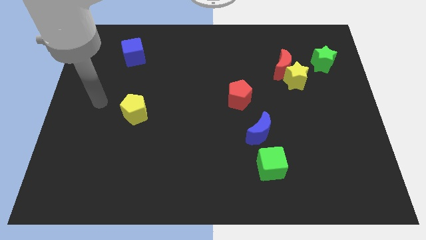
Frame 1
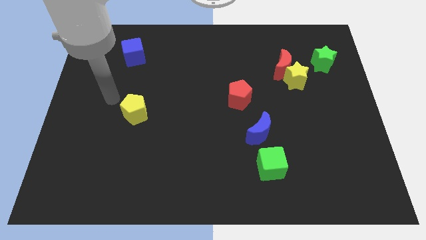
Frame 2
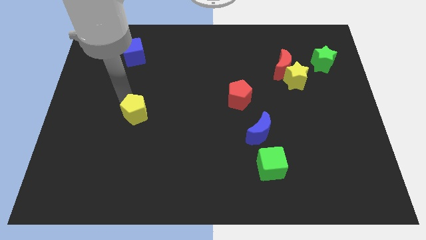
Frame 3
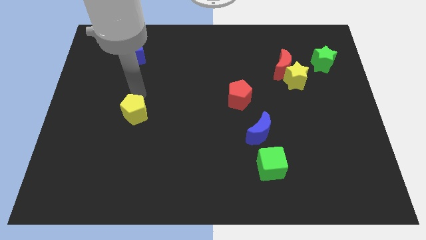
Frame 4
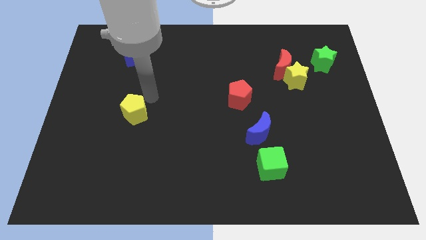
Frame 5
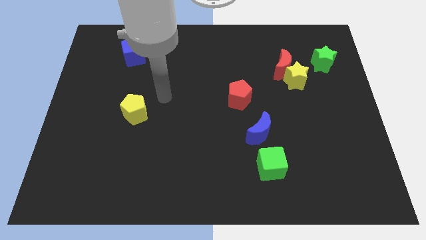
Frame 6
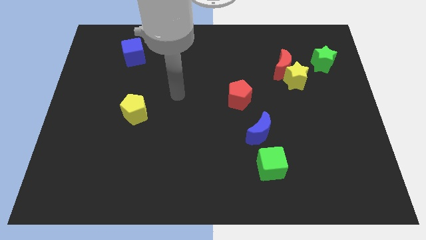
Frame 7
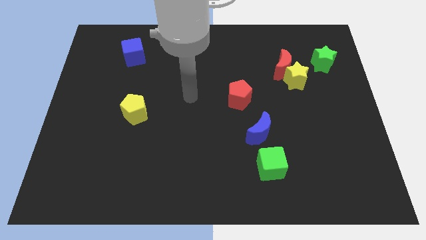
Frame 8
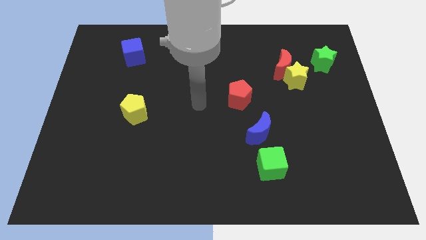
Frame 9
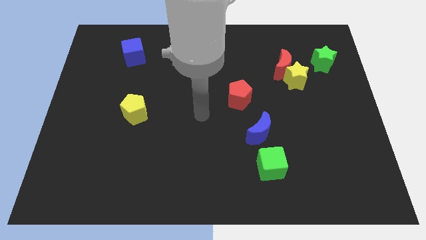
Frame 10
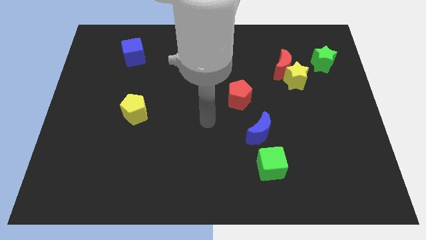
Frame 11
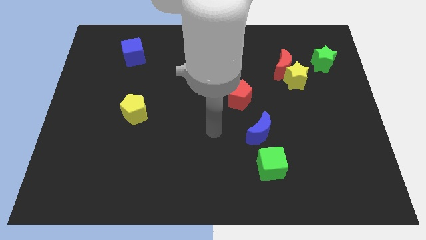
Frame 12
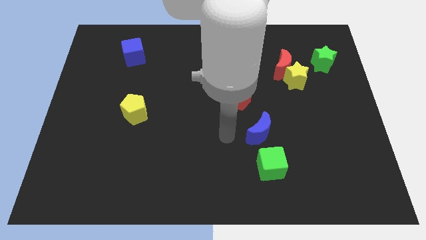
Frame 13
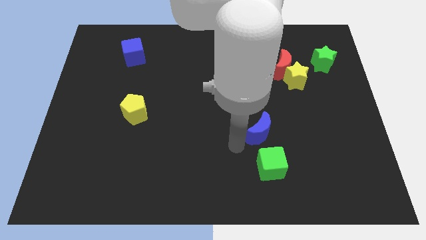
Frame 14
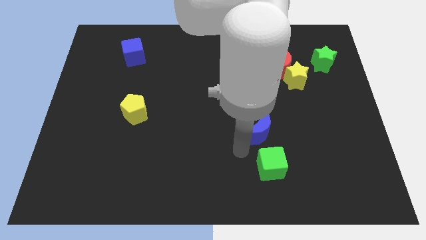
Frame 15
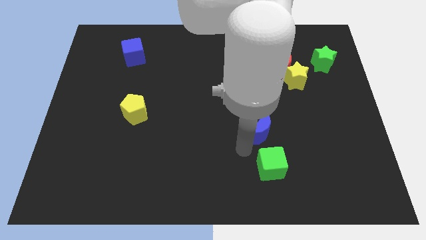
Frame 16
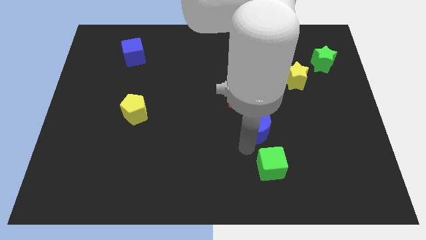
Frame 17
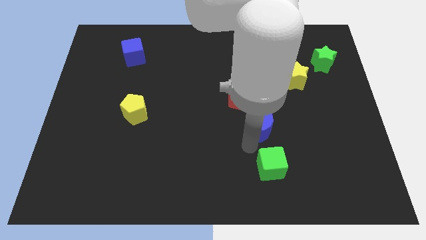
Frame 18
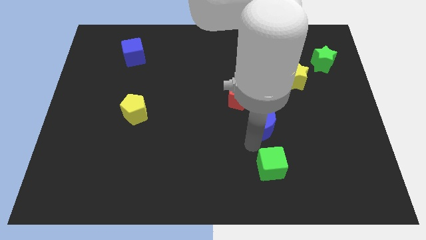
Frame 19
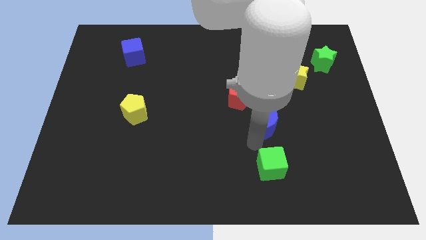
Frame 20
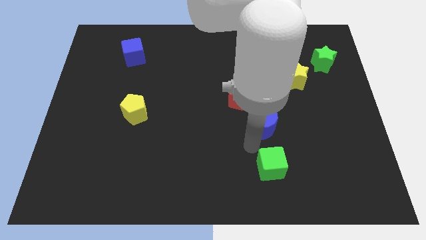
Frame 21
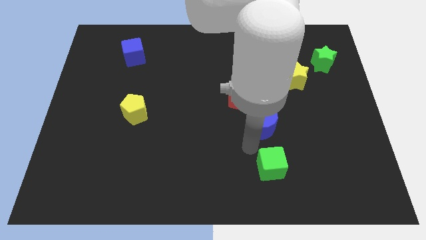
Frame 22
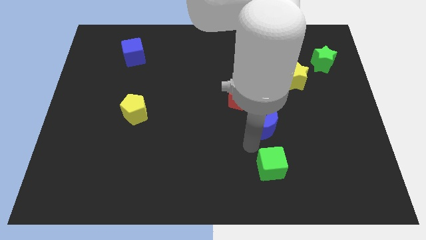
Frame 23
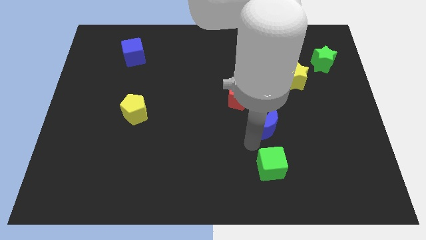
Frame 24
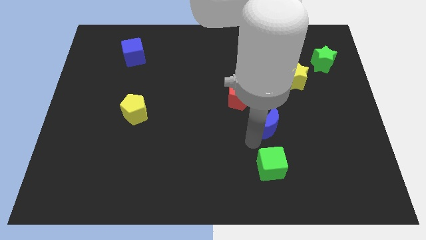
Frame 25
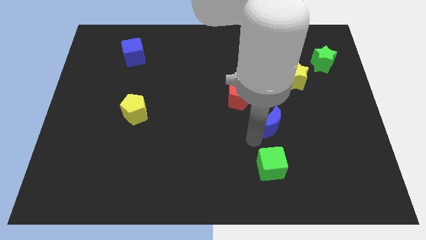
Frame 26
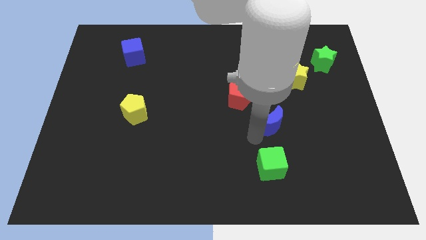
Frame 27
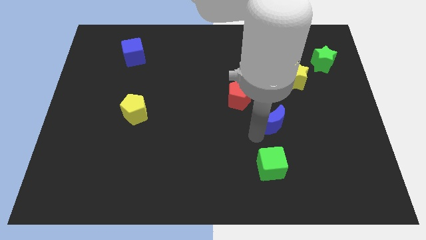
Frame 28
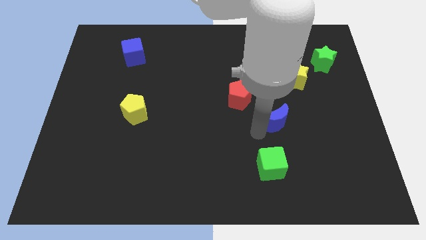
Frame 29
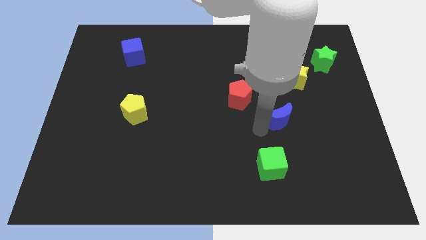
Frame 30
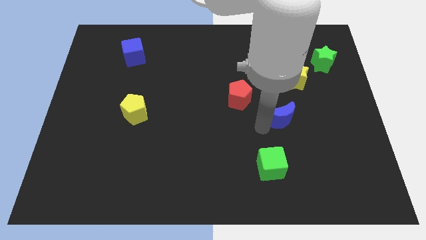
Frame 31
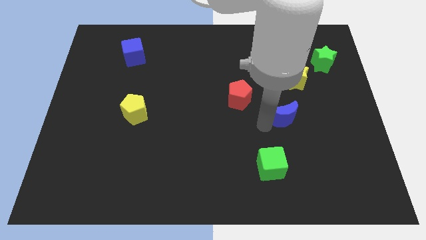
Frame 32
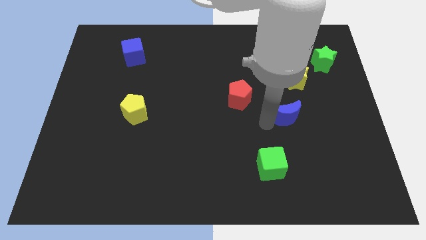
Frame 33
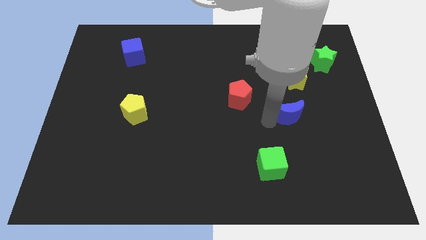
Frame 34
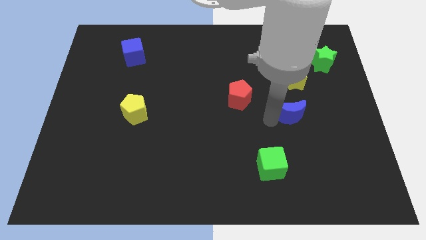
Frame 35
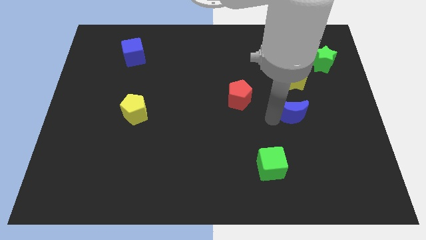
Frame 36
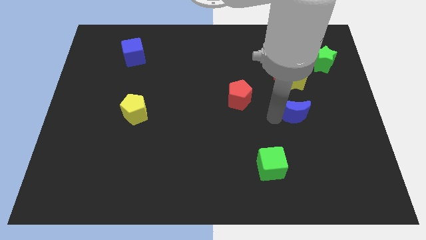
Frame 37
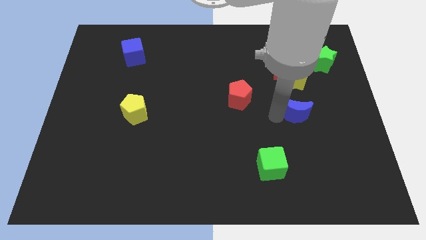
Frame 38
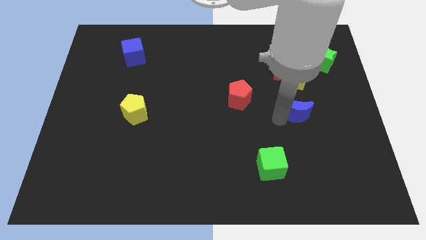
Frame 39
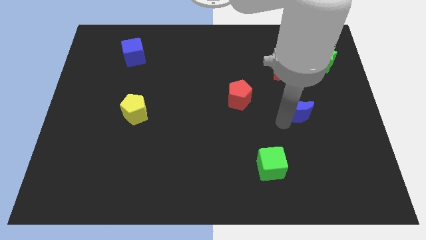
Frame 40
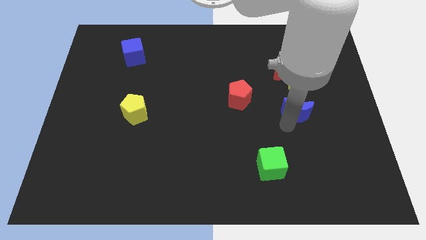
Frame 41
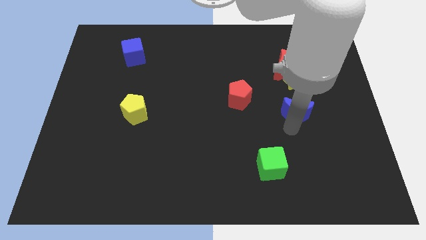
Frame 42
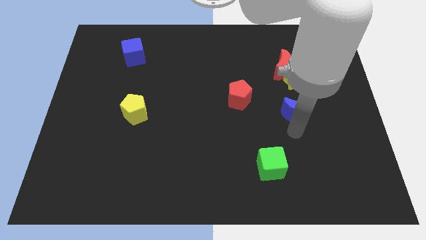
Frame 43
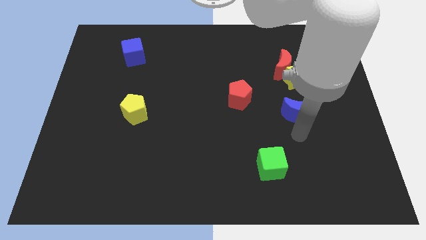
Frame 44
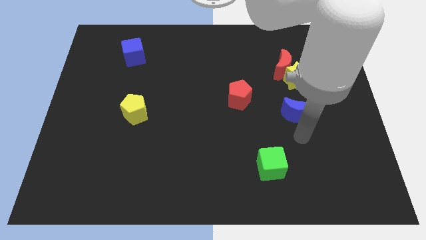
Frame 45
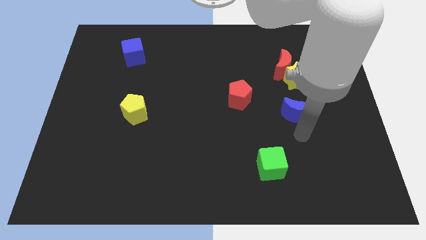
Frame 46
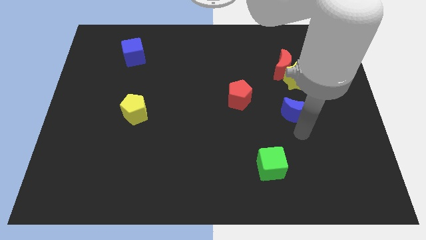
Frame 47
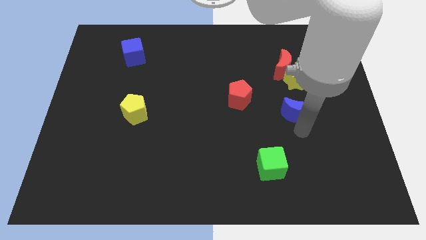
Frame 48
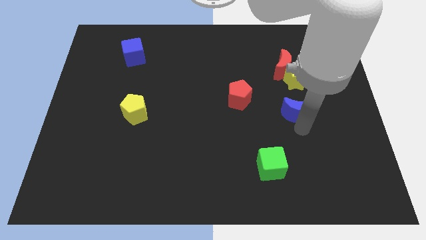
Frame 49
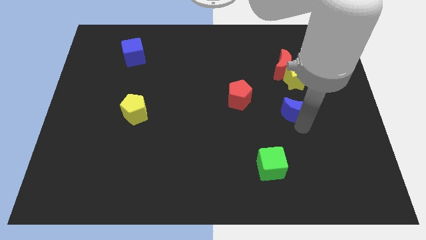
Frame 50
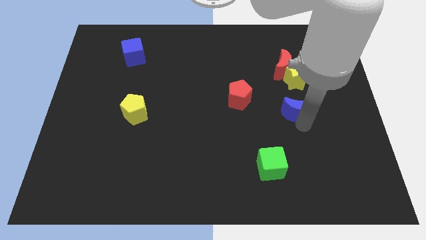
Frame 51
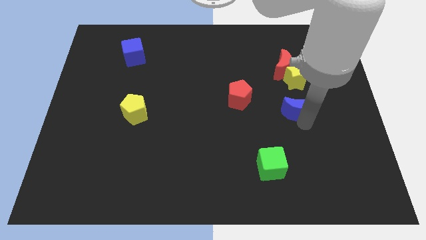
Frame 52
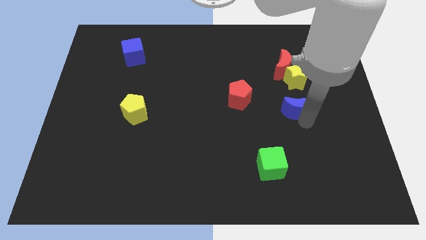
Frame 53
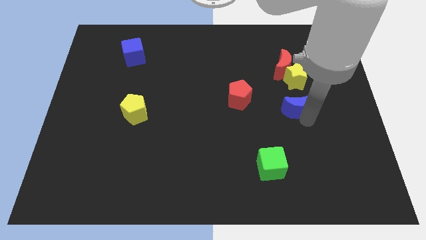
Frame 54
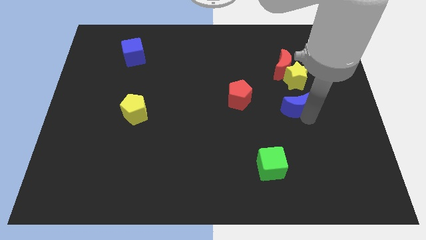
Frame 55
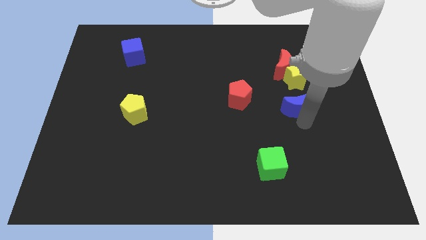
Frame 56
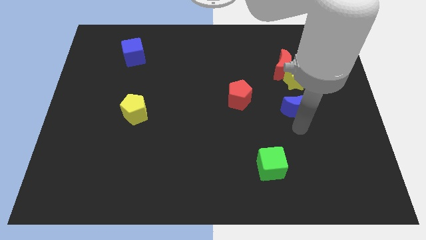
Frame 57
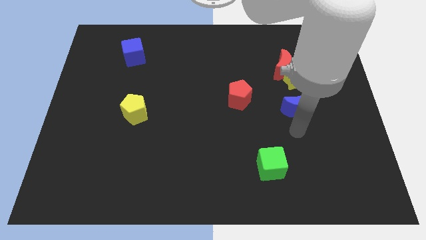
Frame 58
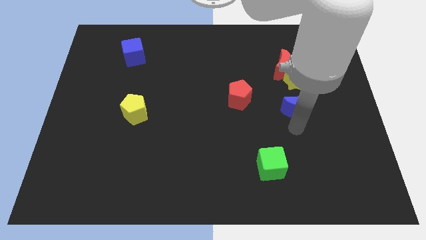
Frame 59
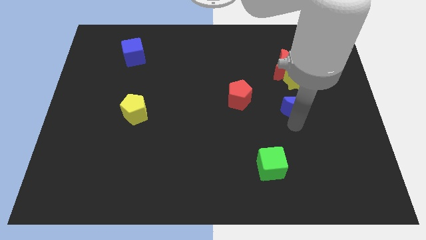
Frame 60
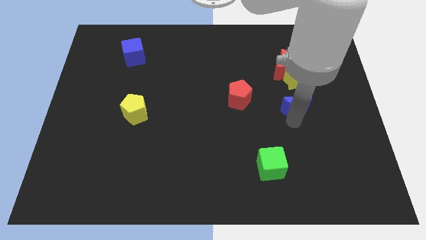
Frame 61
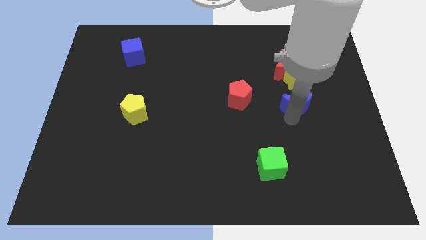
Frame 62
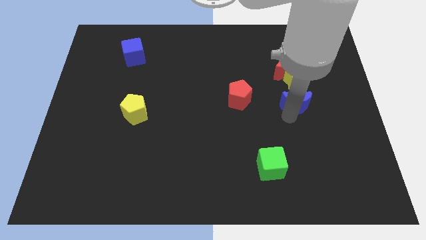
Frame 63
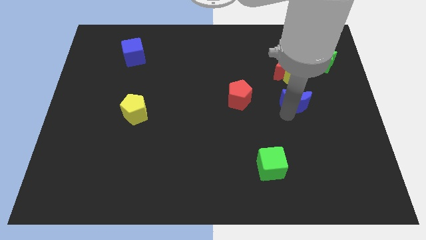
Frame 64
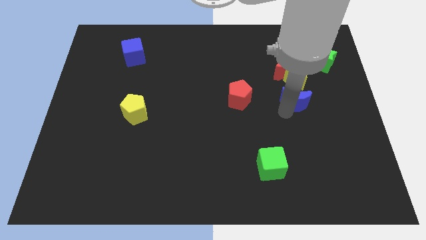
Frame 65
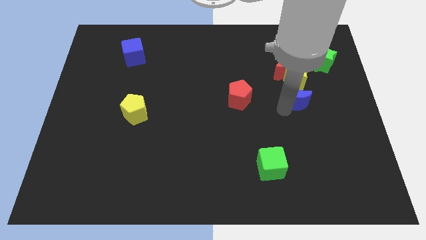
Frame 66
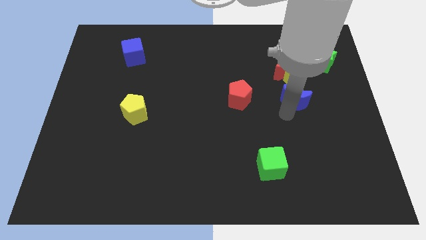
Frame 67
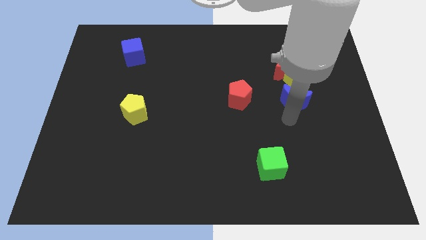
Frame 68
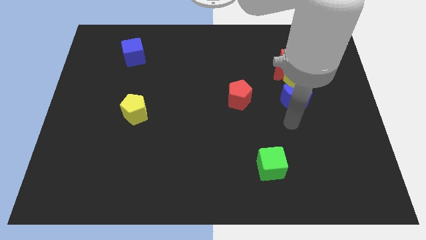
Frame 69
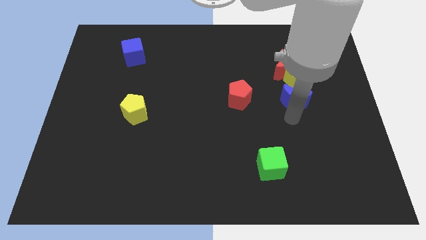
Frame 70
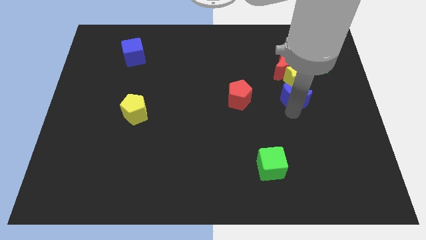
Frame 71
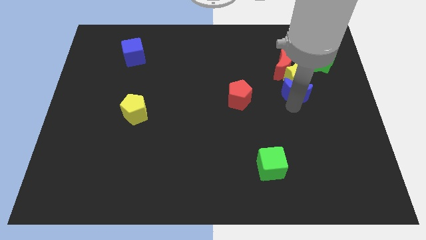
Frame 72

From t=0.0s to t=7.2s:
put the blue moon to the yellow star
